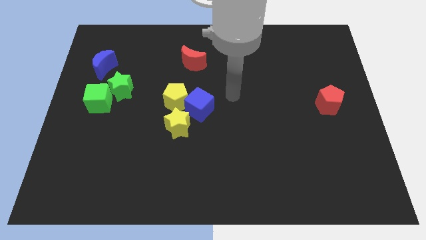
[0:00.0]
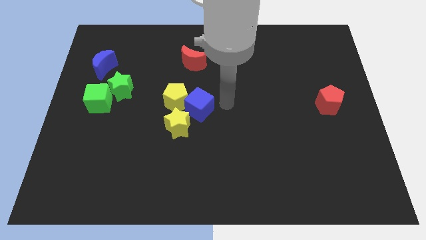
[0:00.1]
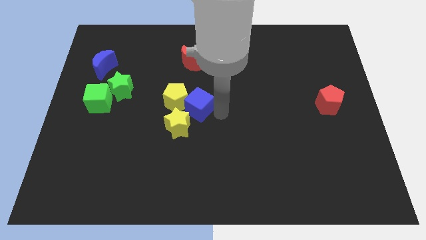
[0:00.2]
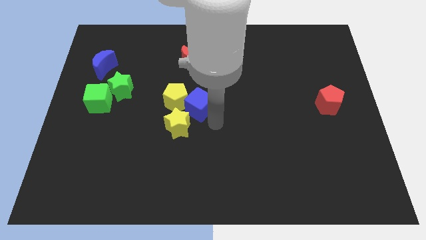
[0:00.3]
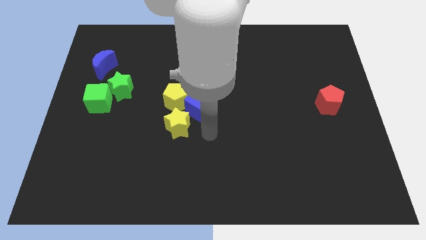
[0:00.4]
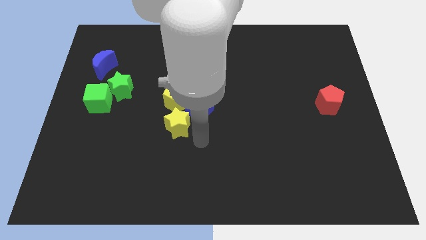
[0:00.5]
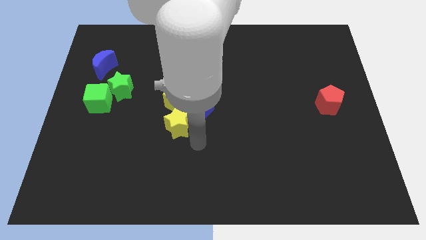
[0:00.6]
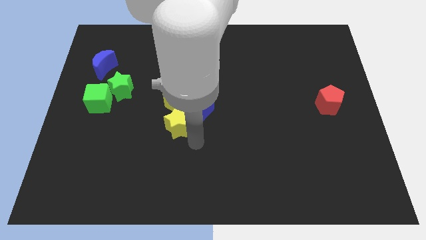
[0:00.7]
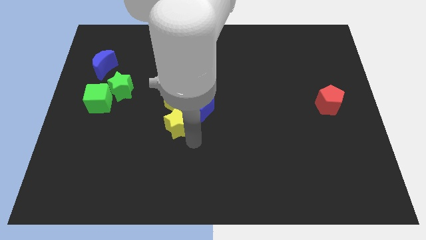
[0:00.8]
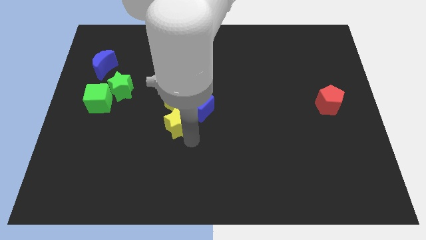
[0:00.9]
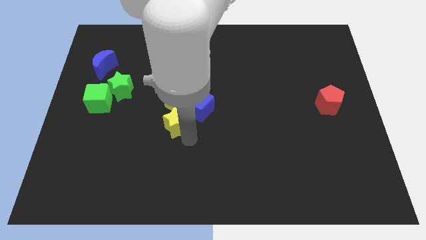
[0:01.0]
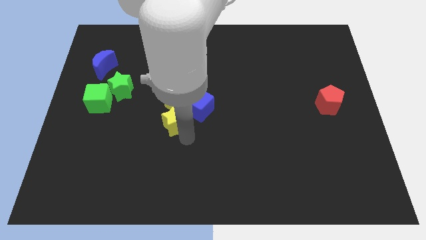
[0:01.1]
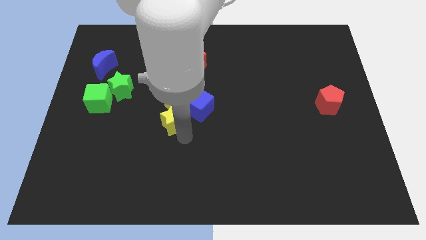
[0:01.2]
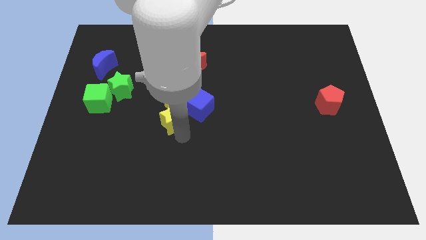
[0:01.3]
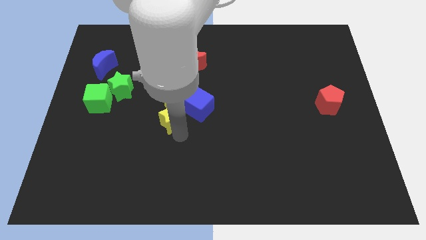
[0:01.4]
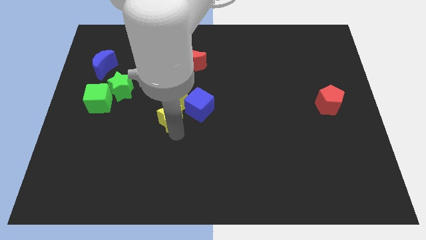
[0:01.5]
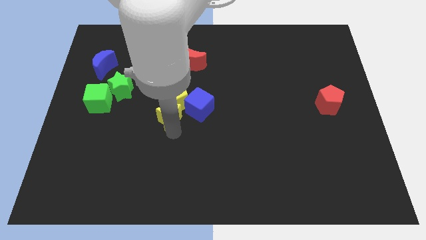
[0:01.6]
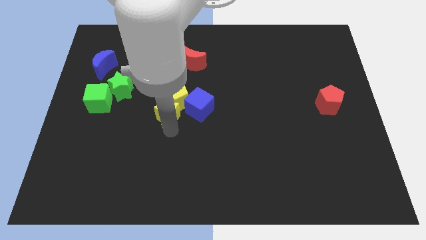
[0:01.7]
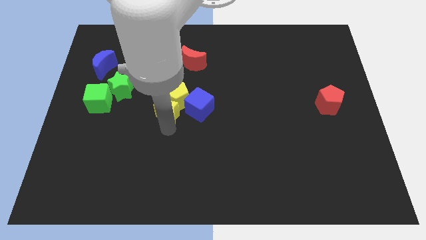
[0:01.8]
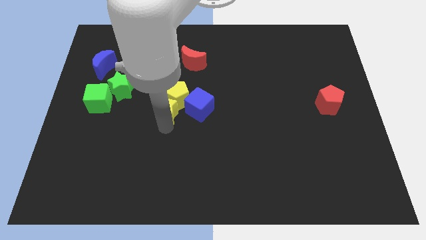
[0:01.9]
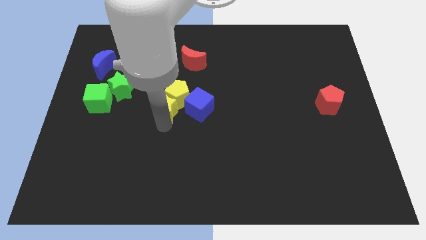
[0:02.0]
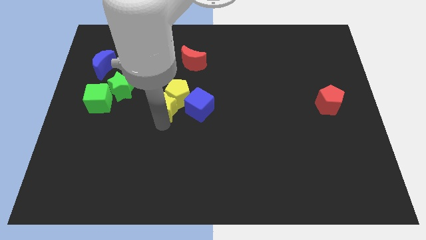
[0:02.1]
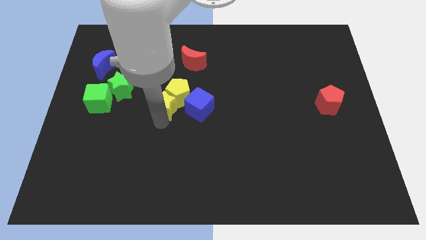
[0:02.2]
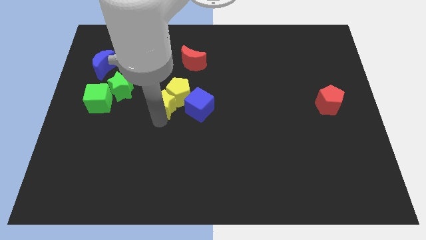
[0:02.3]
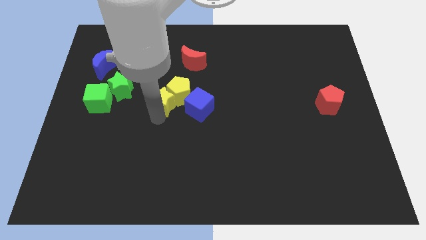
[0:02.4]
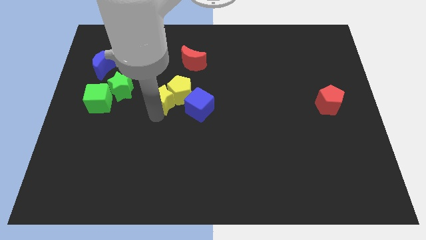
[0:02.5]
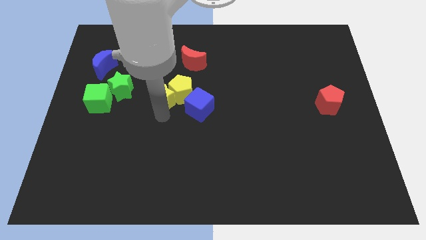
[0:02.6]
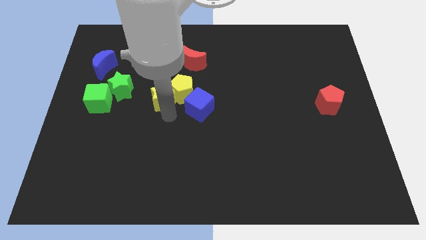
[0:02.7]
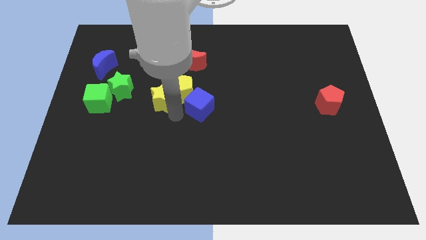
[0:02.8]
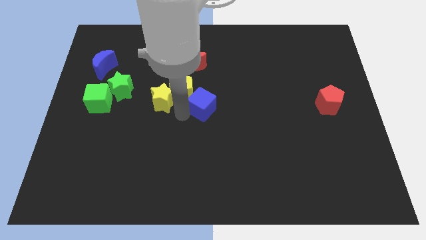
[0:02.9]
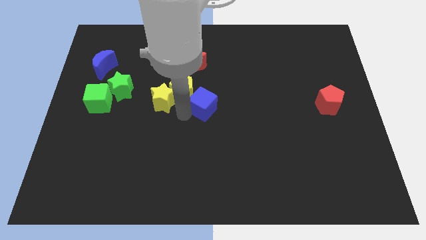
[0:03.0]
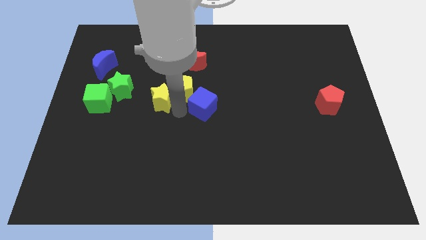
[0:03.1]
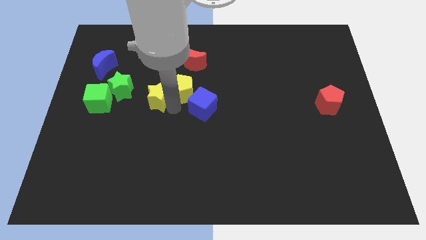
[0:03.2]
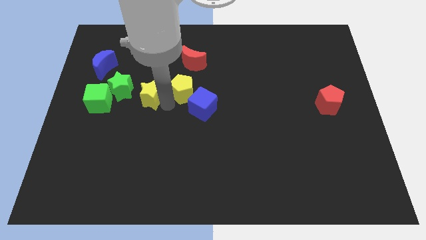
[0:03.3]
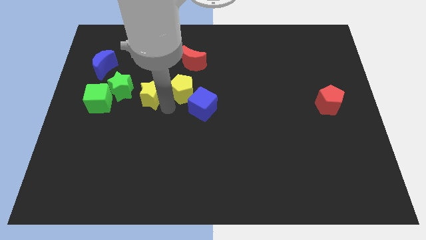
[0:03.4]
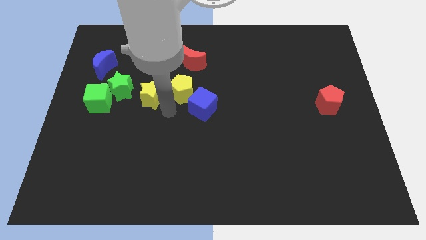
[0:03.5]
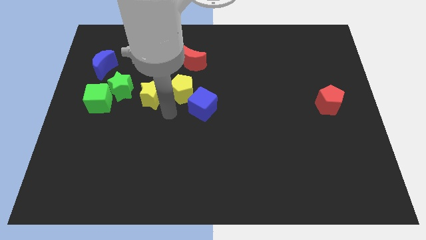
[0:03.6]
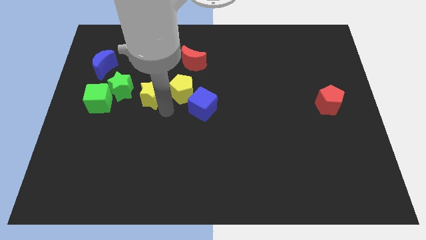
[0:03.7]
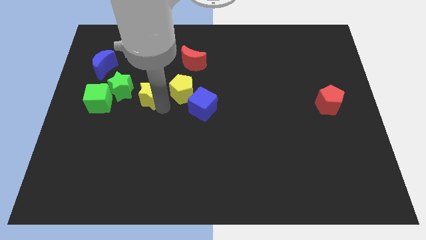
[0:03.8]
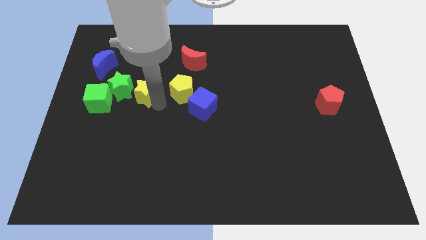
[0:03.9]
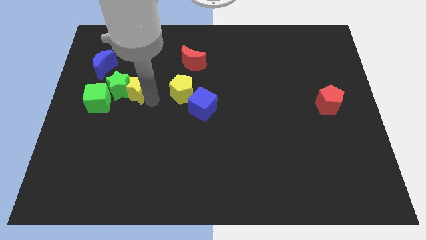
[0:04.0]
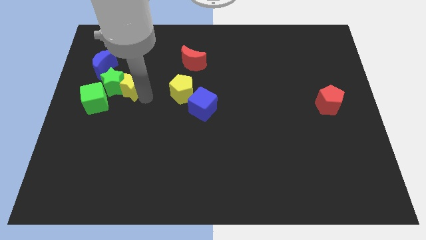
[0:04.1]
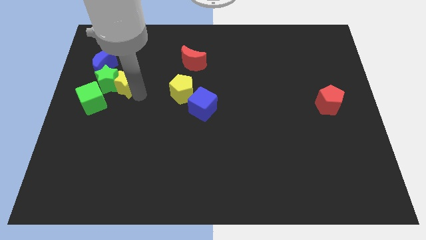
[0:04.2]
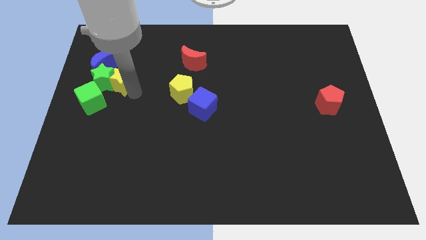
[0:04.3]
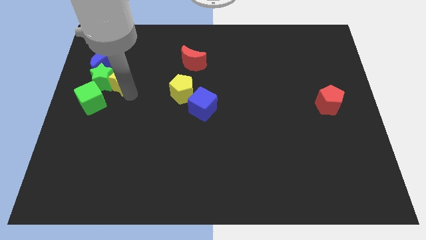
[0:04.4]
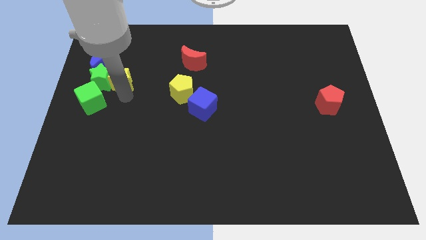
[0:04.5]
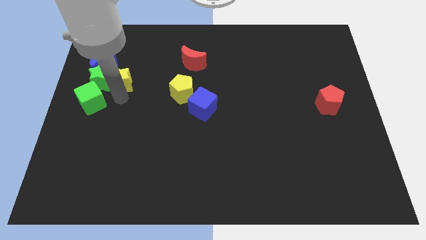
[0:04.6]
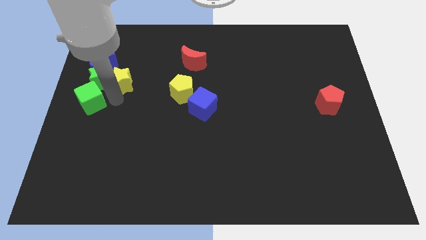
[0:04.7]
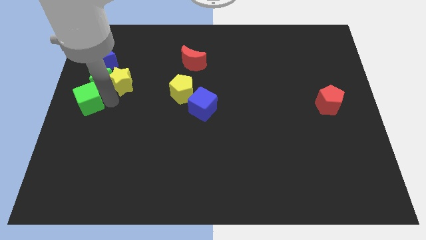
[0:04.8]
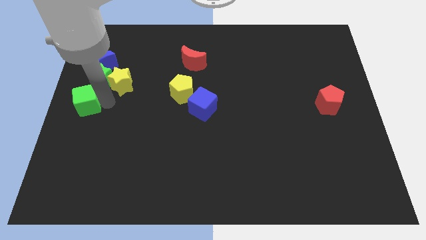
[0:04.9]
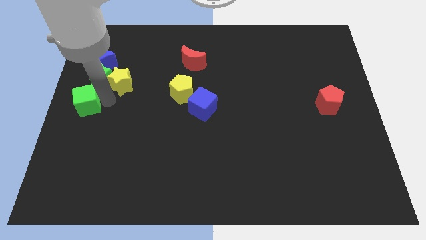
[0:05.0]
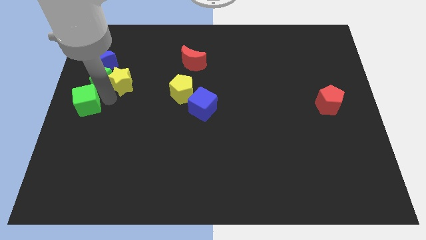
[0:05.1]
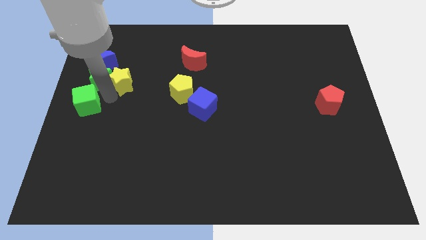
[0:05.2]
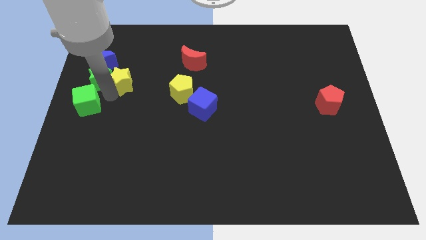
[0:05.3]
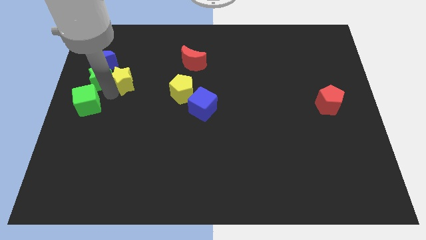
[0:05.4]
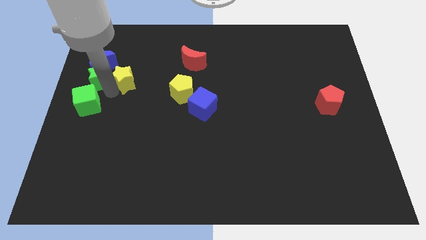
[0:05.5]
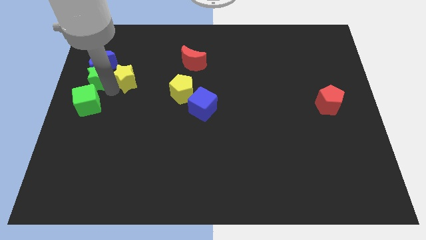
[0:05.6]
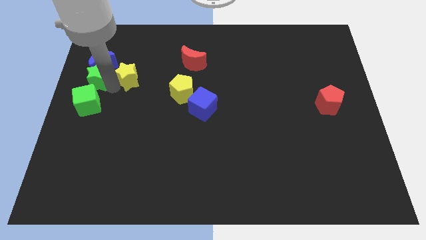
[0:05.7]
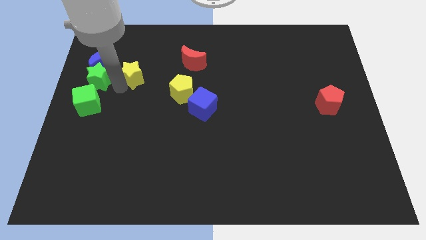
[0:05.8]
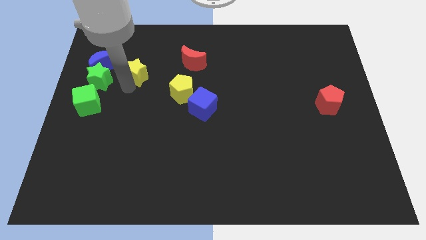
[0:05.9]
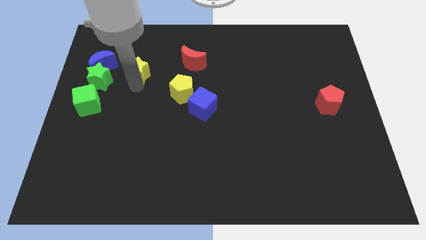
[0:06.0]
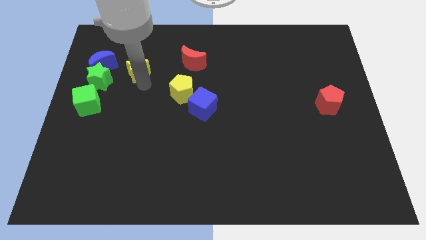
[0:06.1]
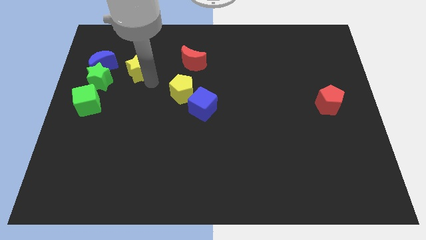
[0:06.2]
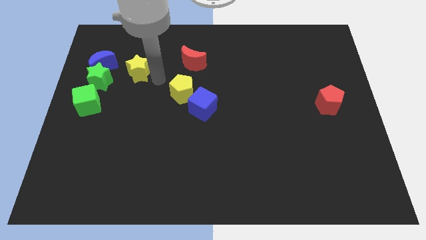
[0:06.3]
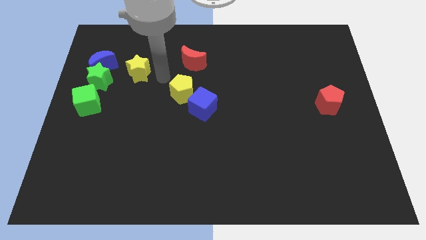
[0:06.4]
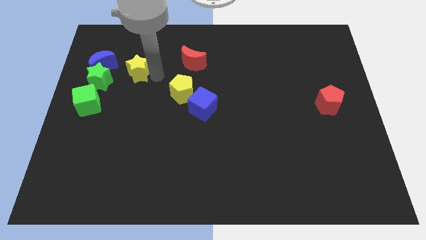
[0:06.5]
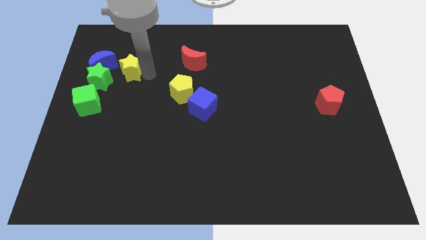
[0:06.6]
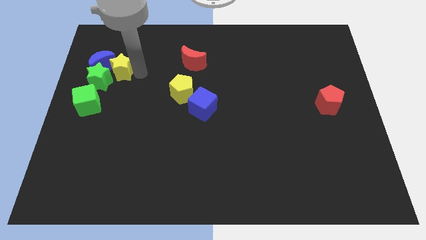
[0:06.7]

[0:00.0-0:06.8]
push the yellow star to the blue moon
